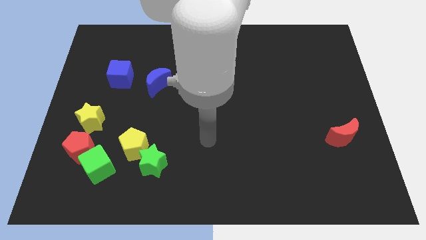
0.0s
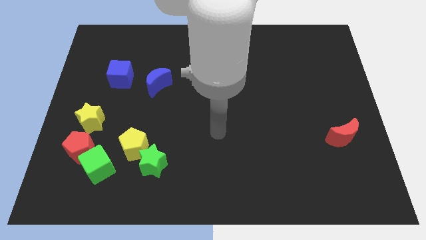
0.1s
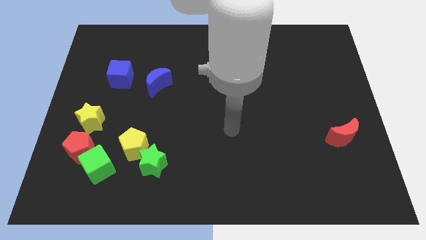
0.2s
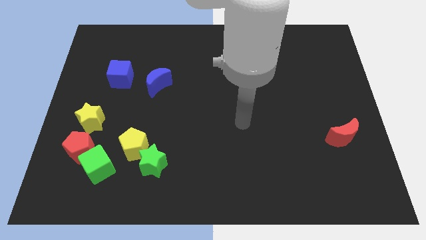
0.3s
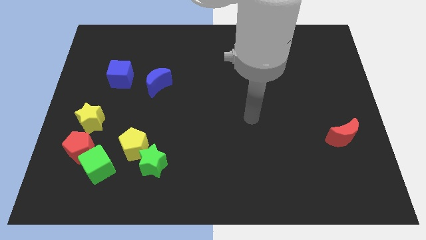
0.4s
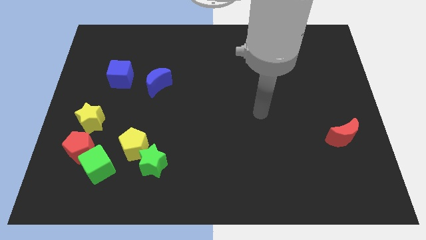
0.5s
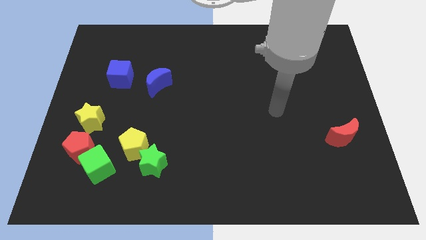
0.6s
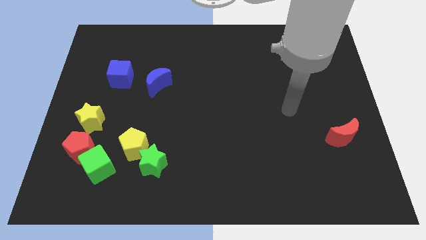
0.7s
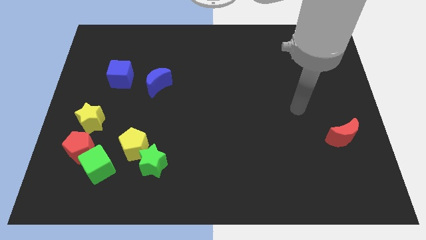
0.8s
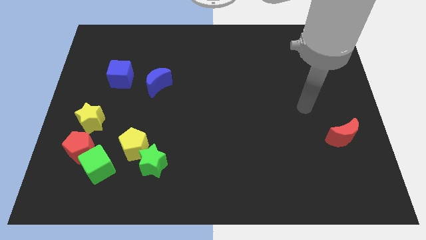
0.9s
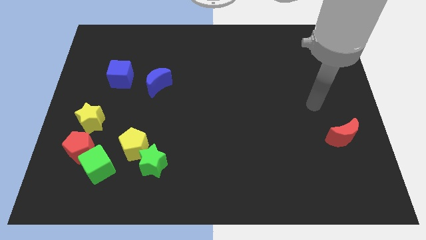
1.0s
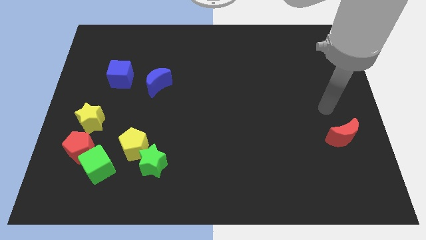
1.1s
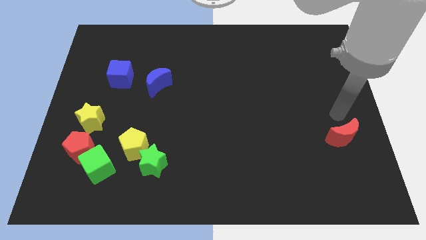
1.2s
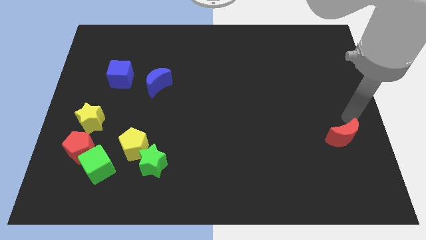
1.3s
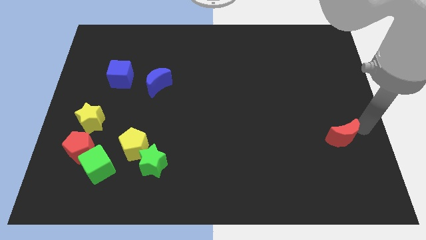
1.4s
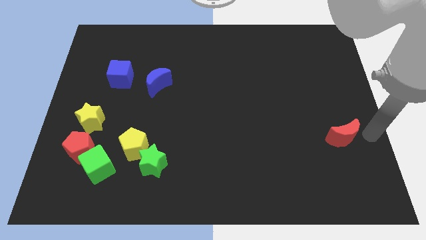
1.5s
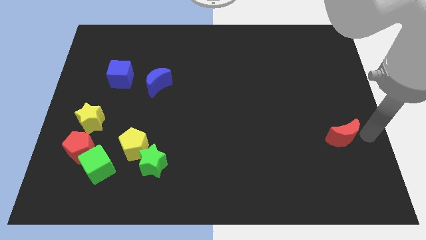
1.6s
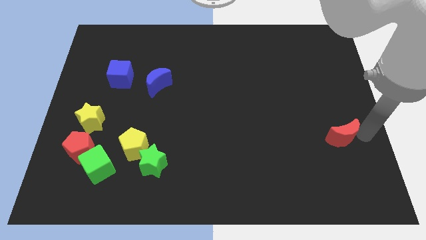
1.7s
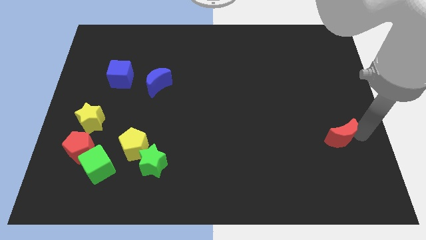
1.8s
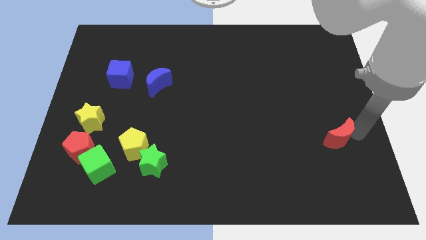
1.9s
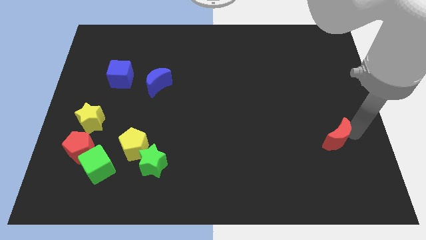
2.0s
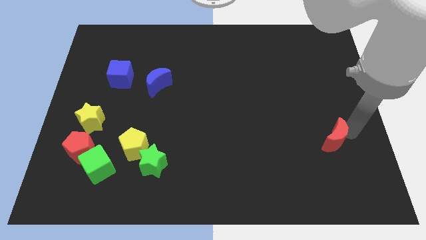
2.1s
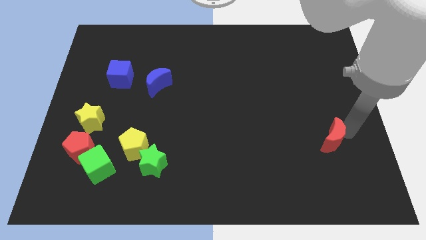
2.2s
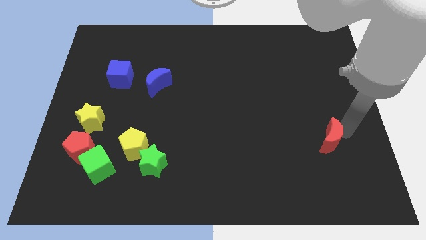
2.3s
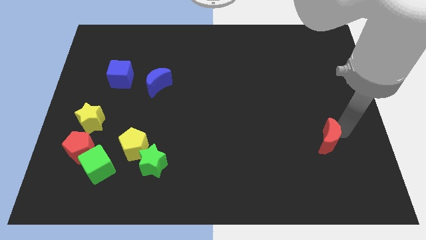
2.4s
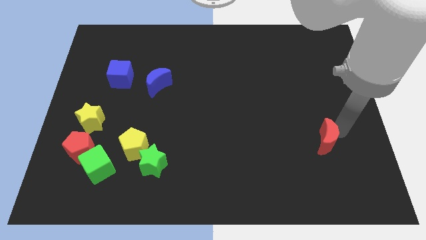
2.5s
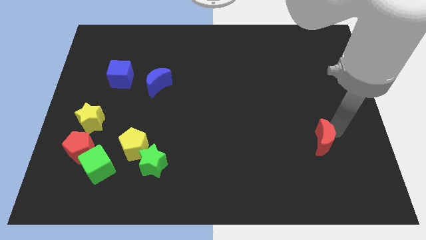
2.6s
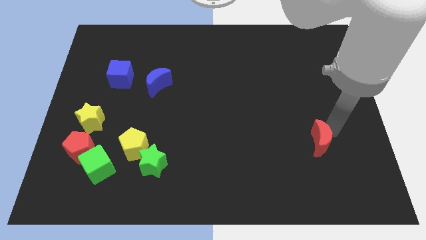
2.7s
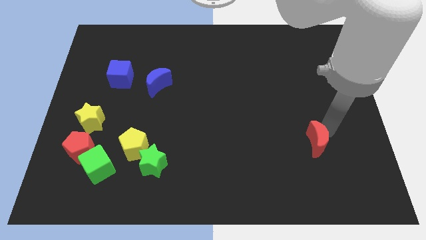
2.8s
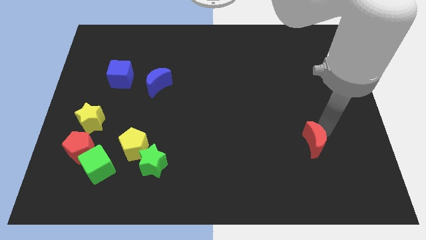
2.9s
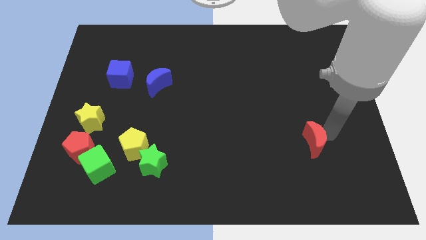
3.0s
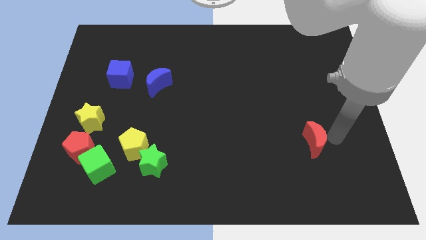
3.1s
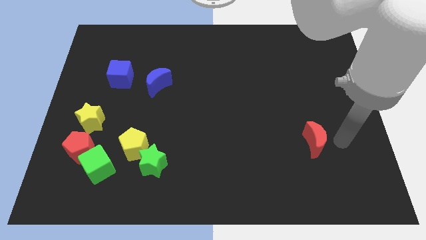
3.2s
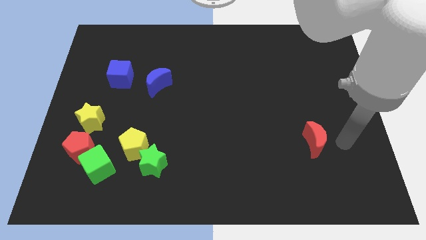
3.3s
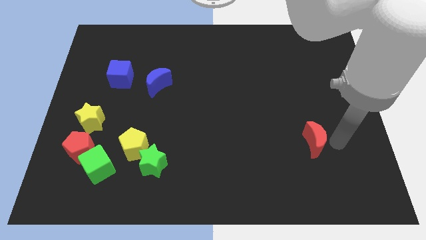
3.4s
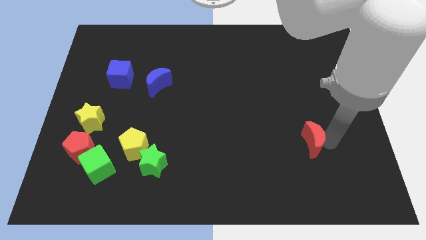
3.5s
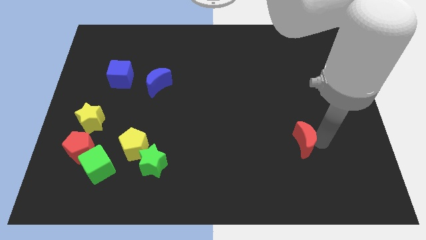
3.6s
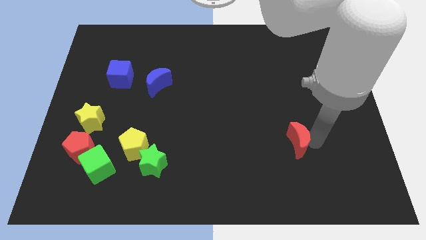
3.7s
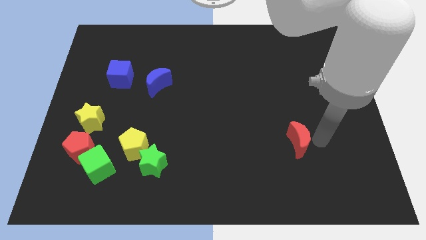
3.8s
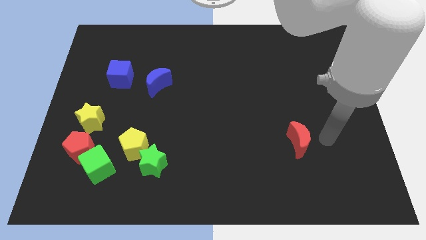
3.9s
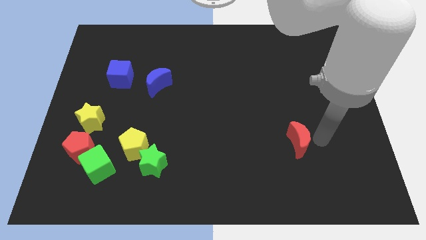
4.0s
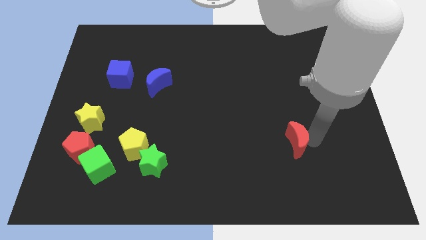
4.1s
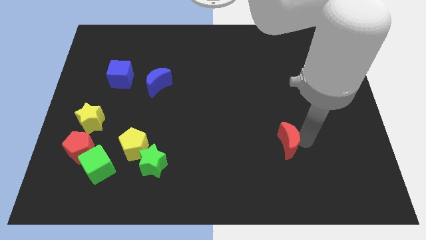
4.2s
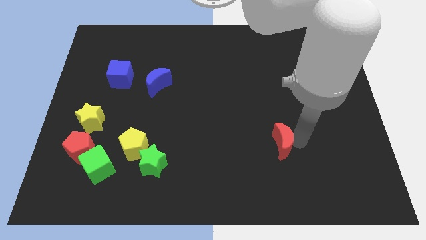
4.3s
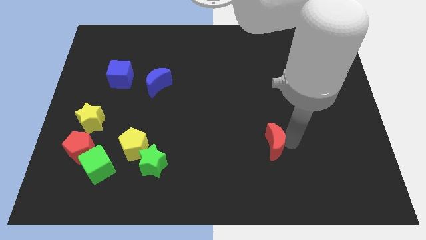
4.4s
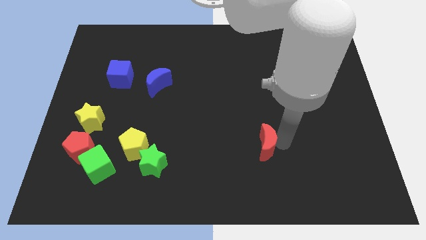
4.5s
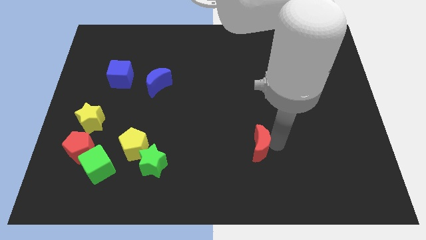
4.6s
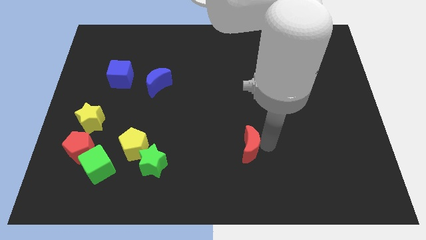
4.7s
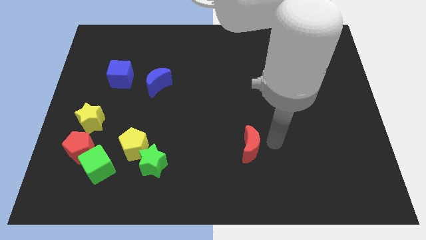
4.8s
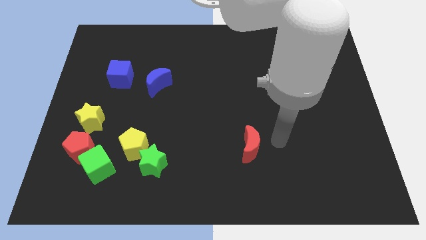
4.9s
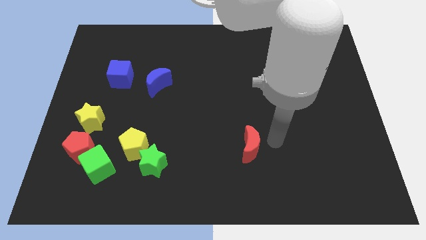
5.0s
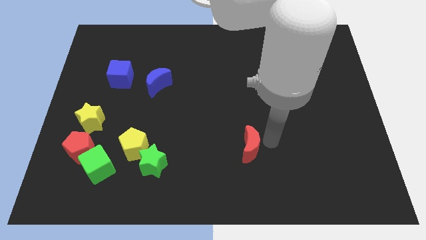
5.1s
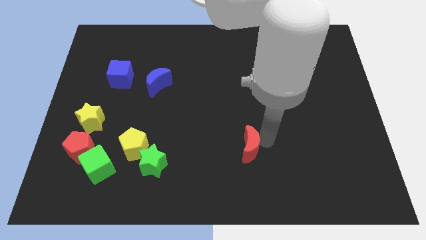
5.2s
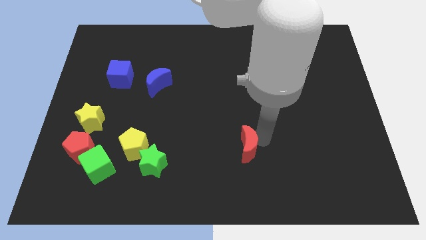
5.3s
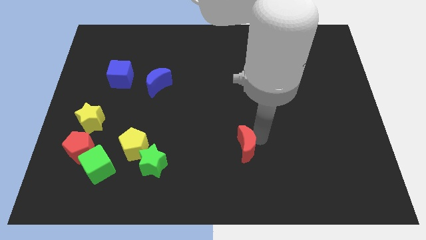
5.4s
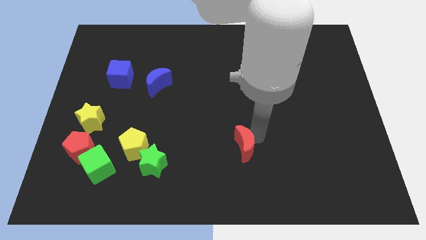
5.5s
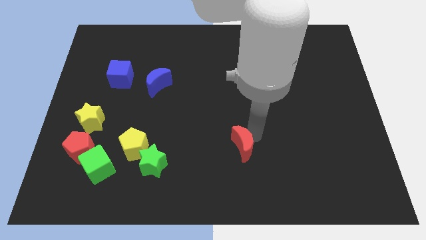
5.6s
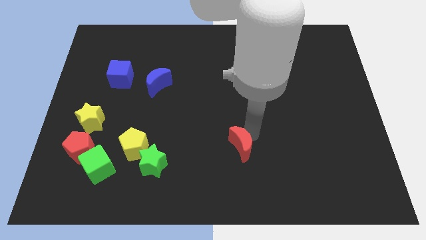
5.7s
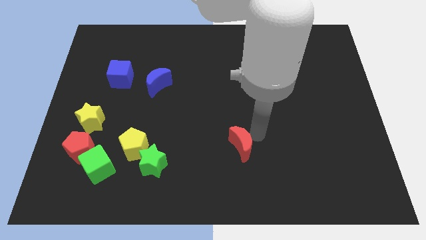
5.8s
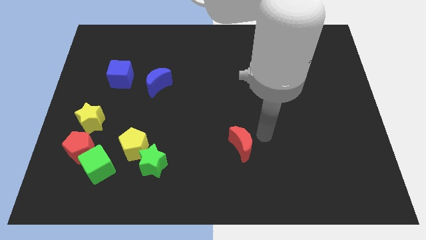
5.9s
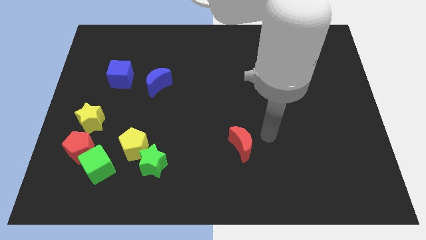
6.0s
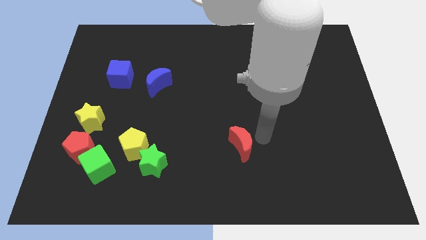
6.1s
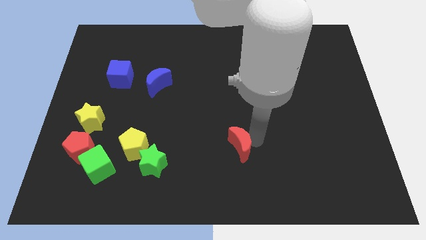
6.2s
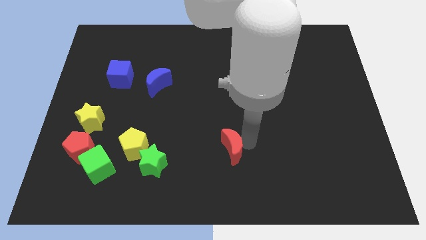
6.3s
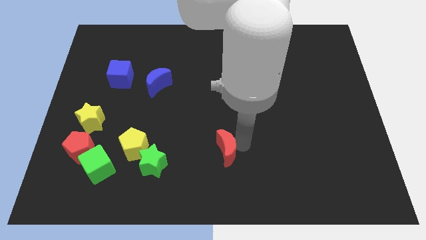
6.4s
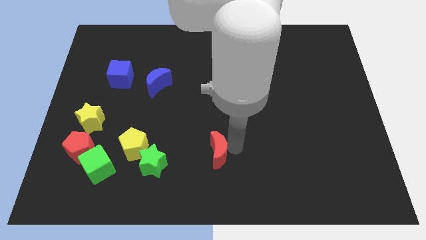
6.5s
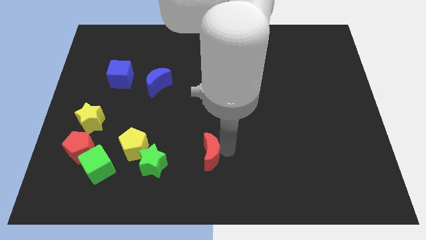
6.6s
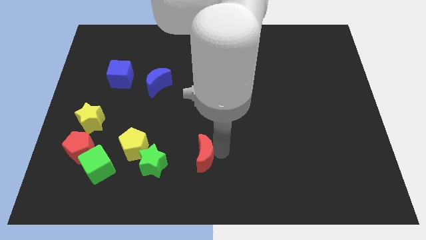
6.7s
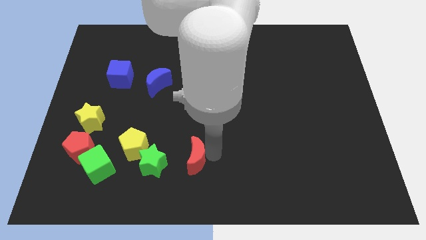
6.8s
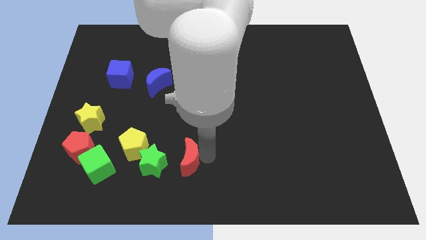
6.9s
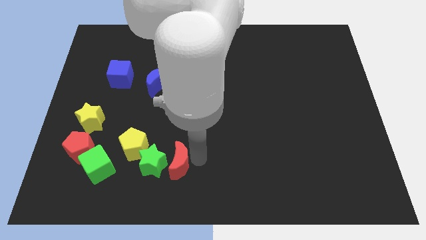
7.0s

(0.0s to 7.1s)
move the red moon next to the green star

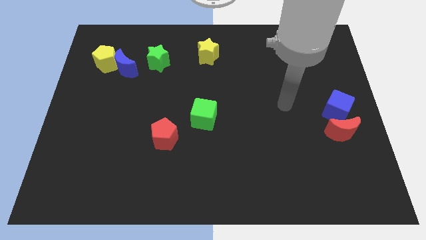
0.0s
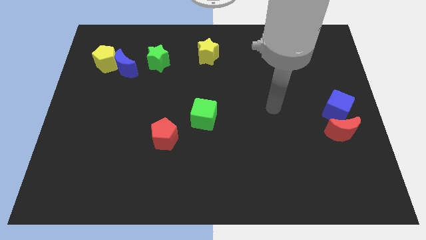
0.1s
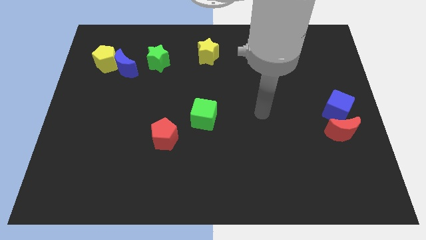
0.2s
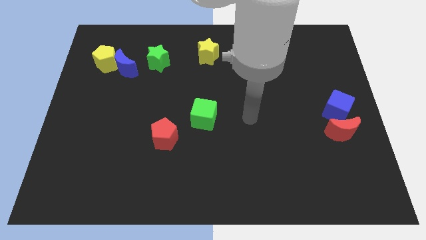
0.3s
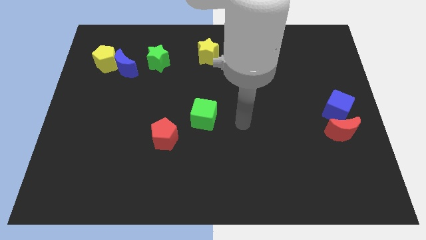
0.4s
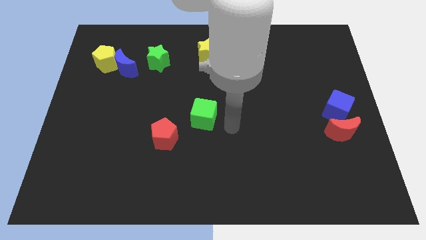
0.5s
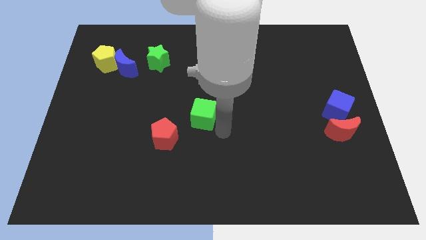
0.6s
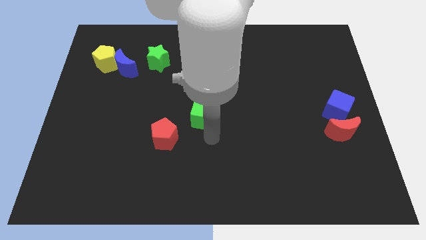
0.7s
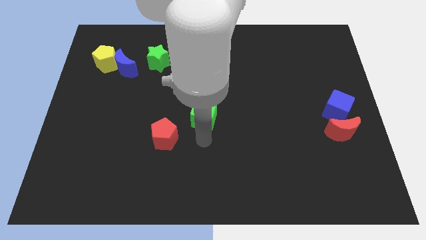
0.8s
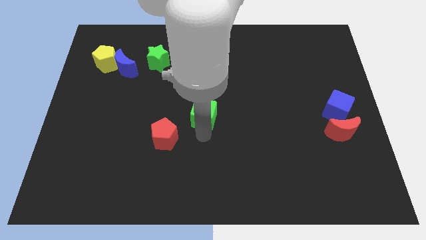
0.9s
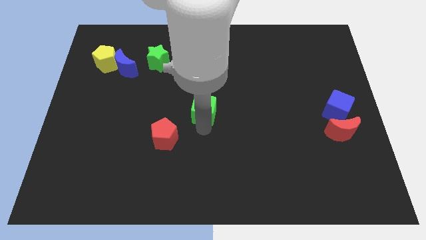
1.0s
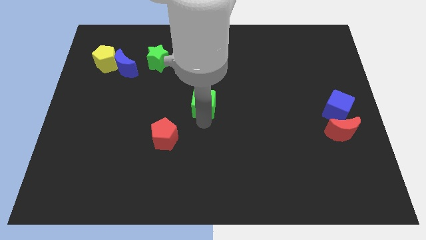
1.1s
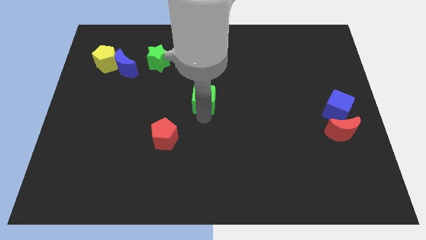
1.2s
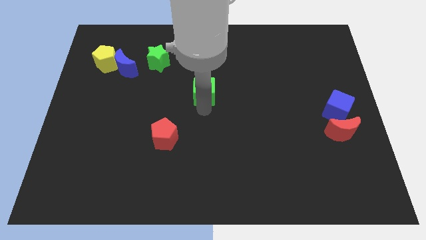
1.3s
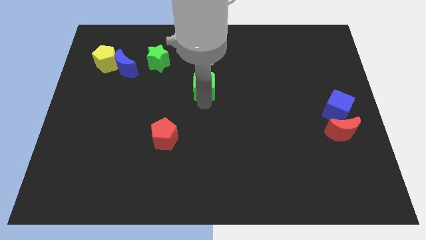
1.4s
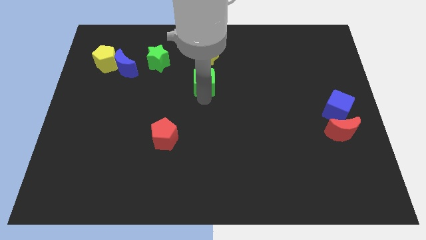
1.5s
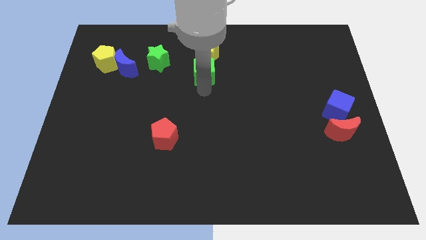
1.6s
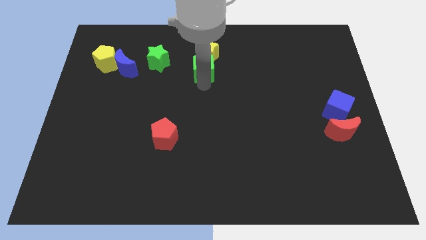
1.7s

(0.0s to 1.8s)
push the green cube to the yellow star
